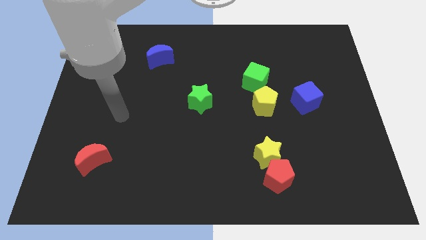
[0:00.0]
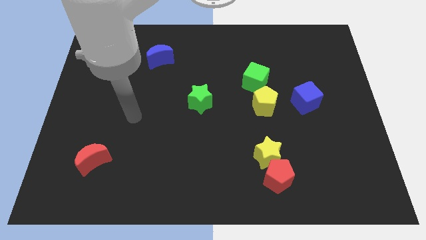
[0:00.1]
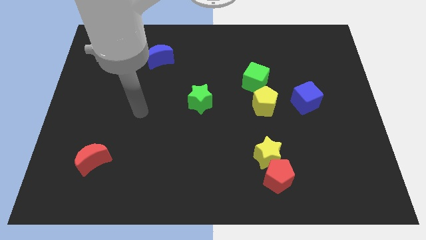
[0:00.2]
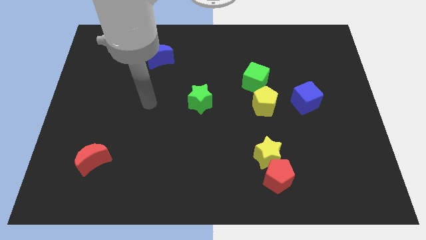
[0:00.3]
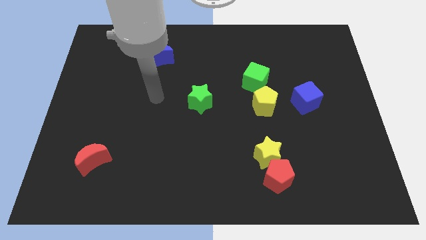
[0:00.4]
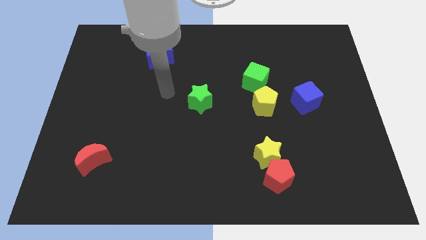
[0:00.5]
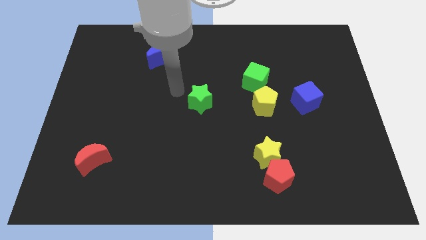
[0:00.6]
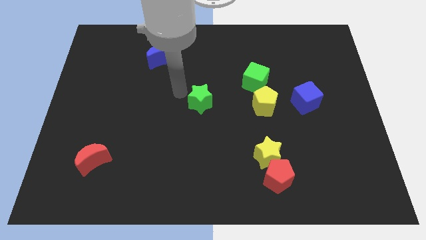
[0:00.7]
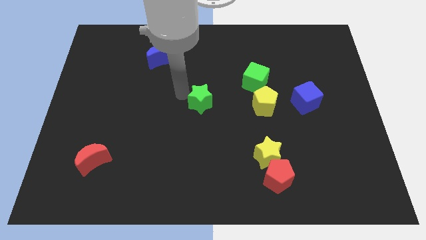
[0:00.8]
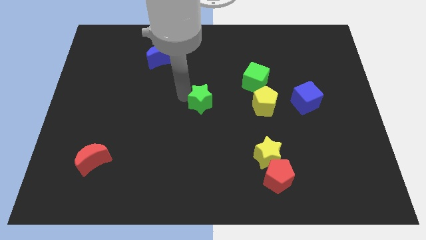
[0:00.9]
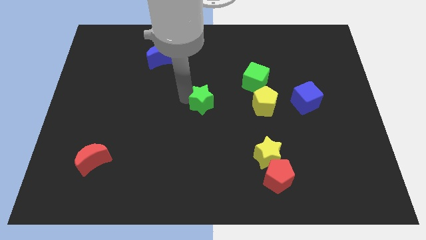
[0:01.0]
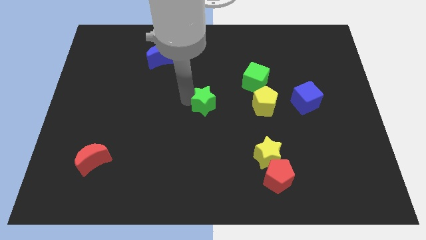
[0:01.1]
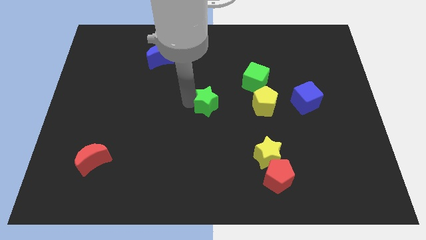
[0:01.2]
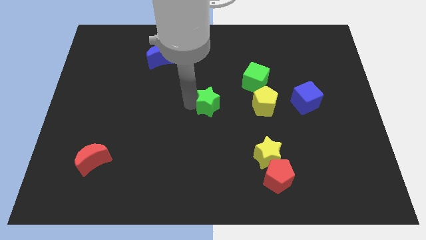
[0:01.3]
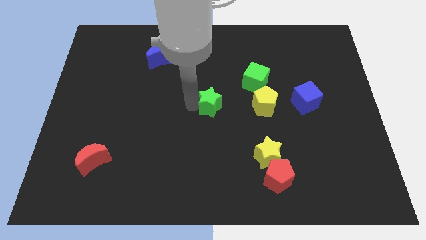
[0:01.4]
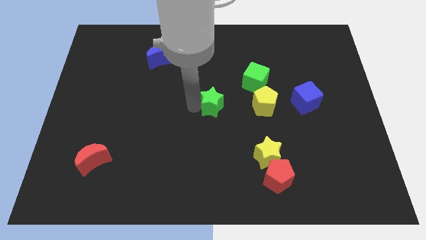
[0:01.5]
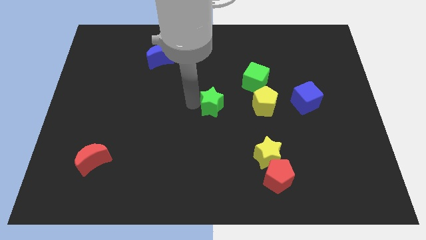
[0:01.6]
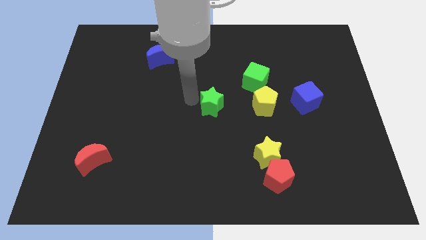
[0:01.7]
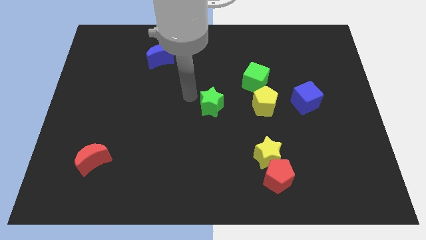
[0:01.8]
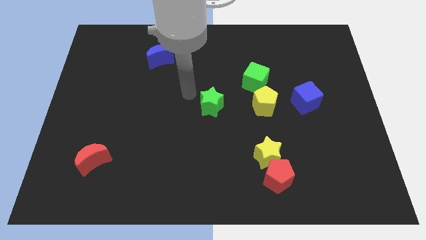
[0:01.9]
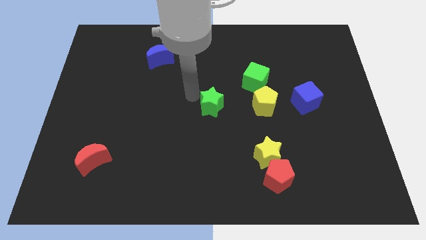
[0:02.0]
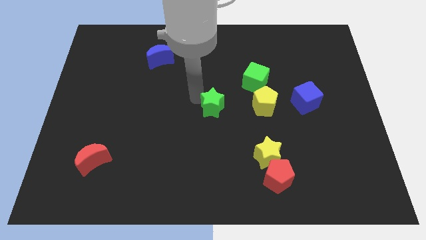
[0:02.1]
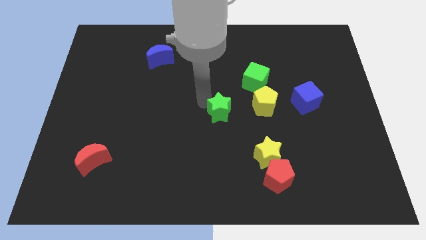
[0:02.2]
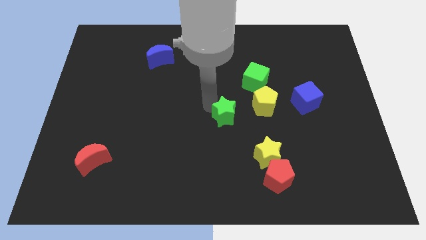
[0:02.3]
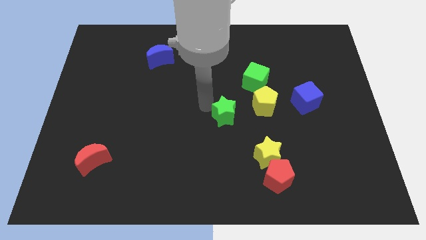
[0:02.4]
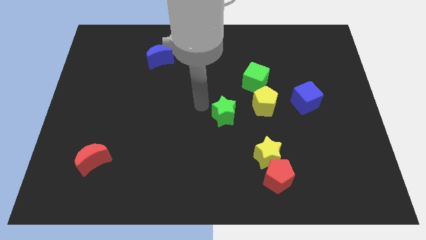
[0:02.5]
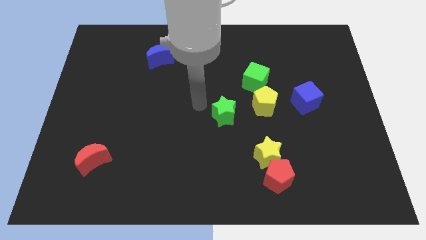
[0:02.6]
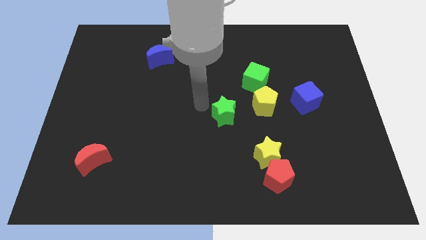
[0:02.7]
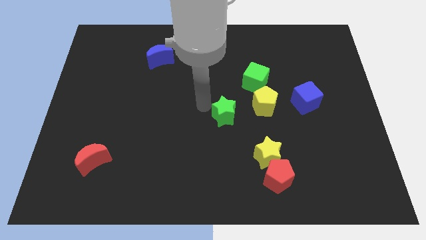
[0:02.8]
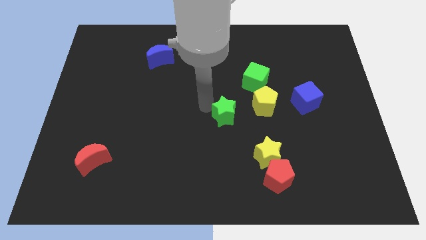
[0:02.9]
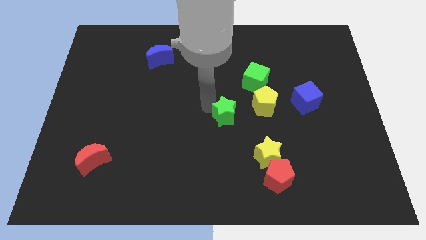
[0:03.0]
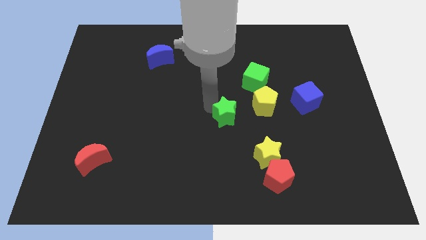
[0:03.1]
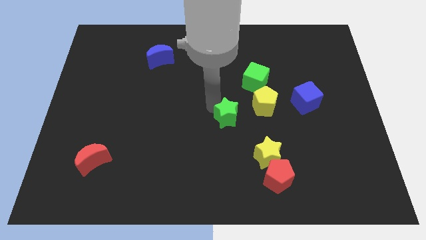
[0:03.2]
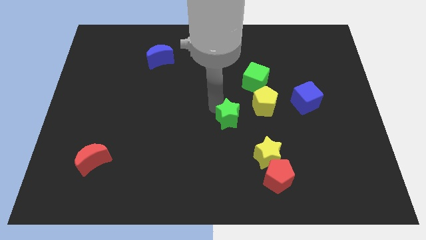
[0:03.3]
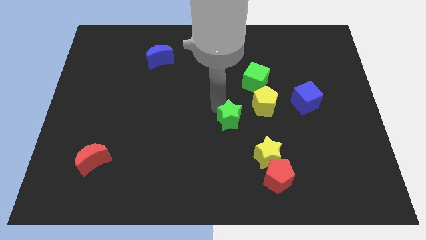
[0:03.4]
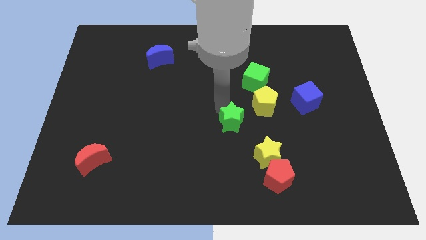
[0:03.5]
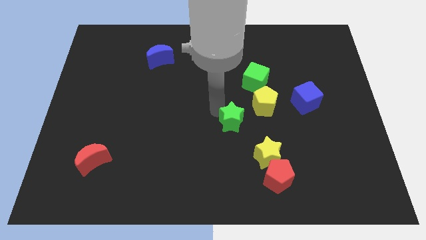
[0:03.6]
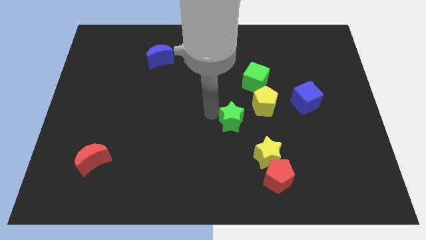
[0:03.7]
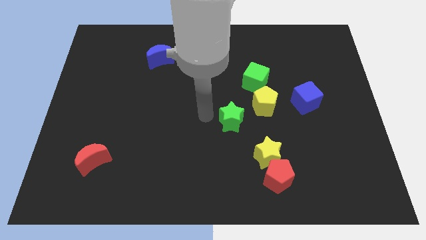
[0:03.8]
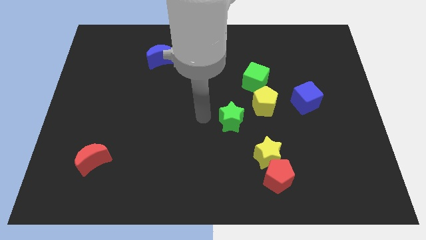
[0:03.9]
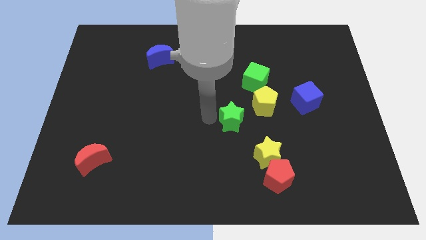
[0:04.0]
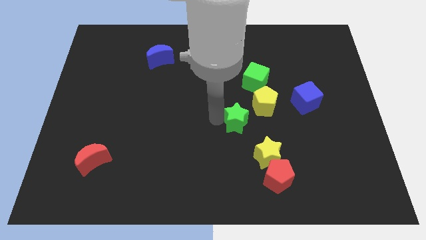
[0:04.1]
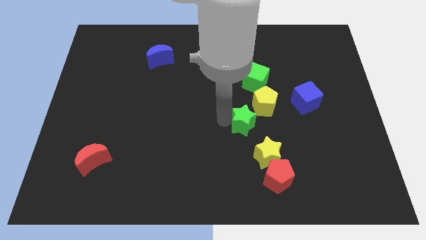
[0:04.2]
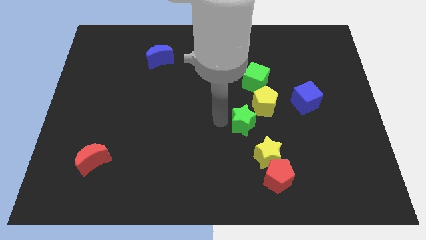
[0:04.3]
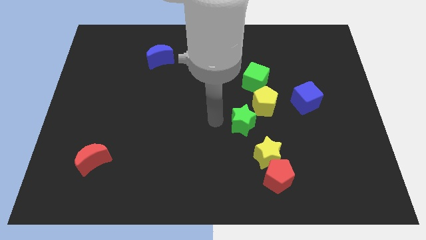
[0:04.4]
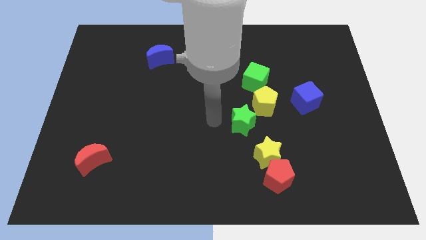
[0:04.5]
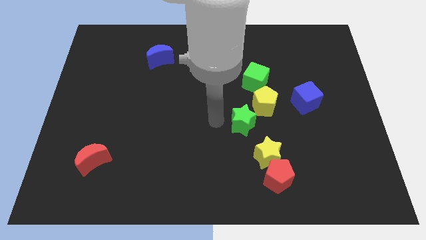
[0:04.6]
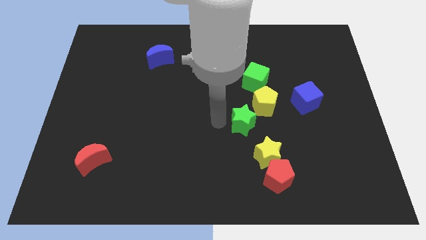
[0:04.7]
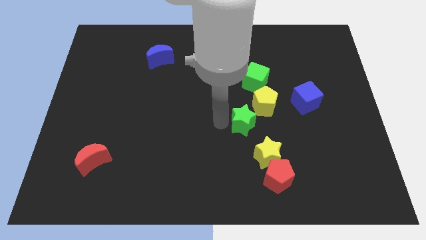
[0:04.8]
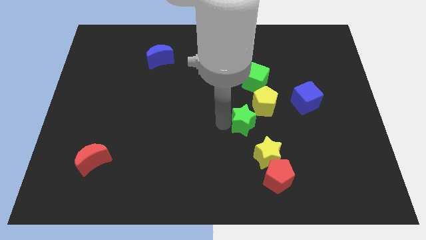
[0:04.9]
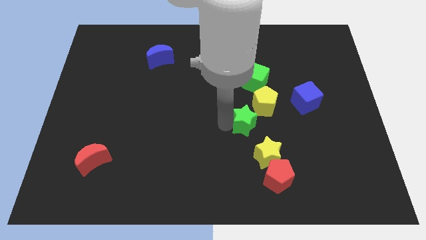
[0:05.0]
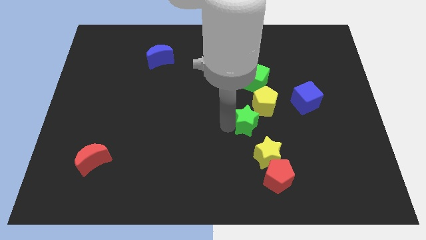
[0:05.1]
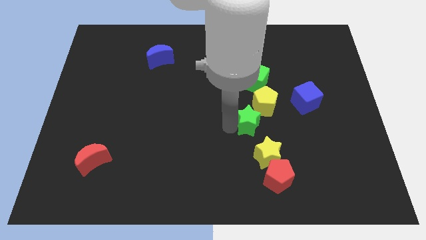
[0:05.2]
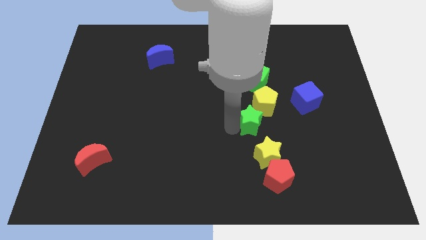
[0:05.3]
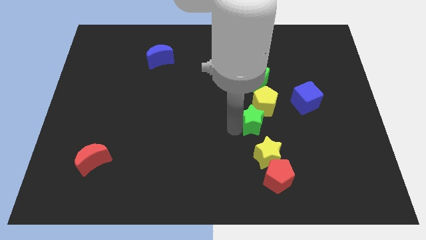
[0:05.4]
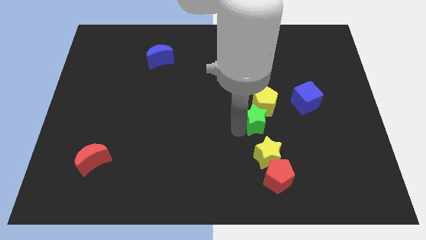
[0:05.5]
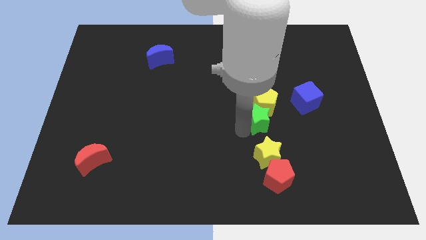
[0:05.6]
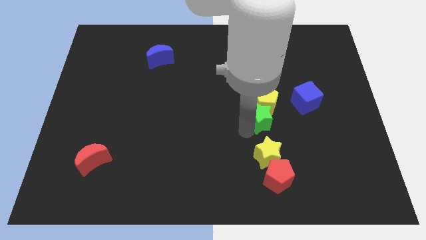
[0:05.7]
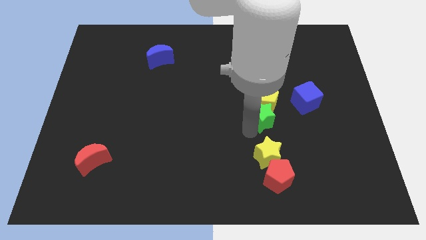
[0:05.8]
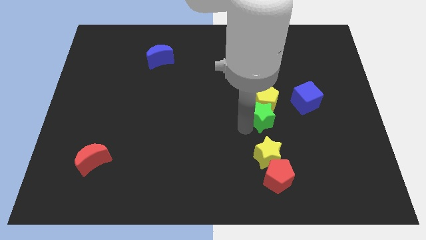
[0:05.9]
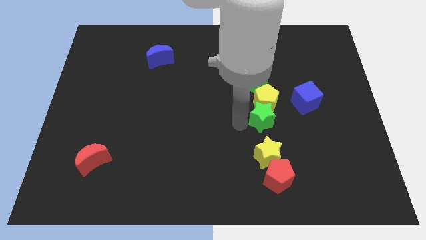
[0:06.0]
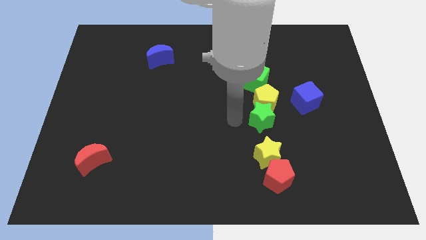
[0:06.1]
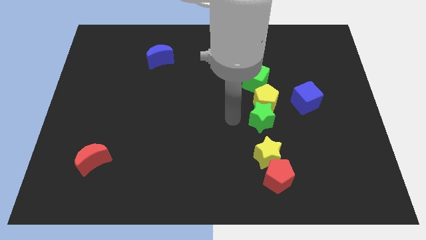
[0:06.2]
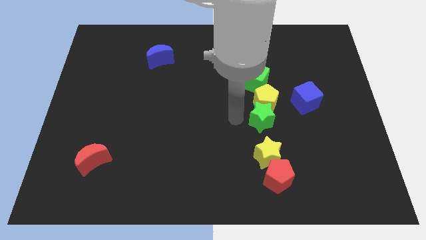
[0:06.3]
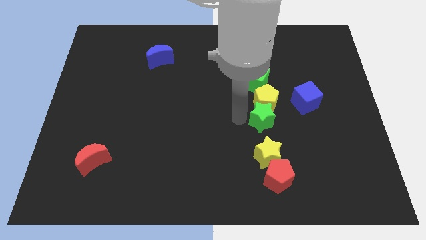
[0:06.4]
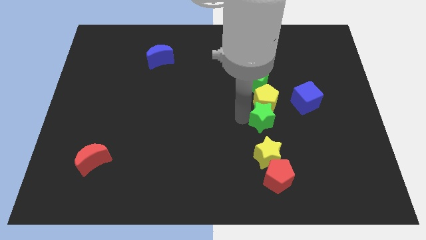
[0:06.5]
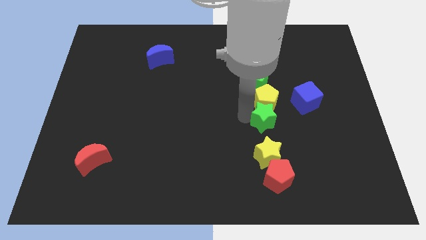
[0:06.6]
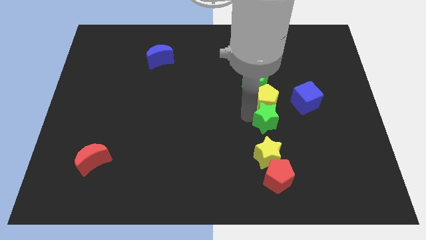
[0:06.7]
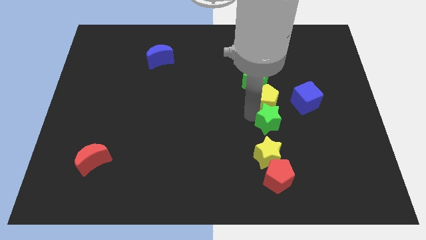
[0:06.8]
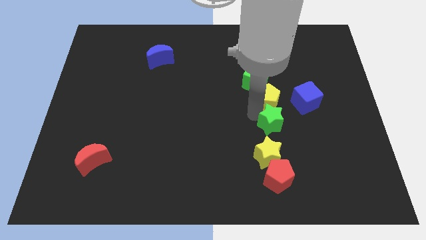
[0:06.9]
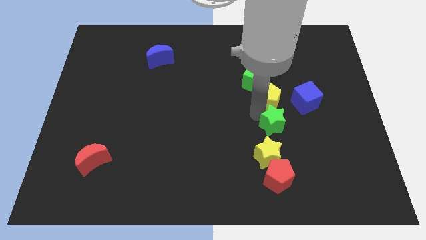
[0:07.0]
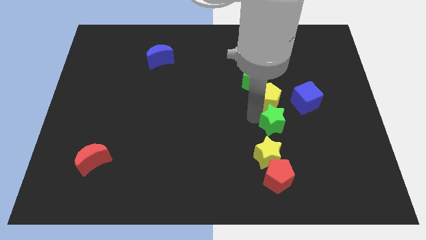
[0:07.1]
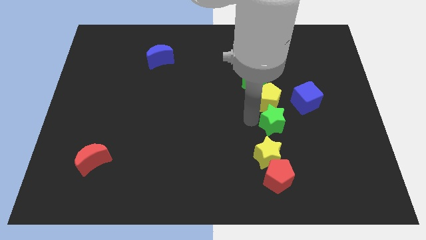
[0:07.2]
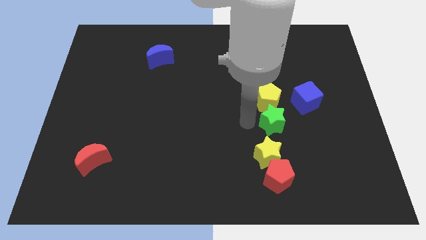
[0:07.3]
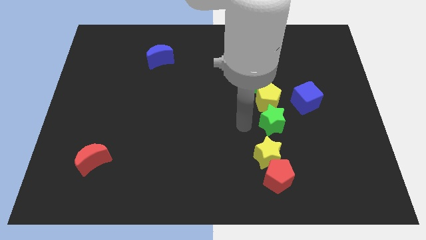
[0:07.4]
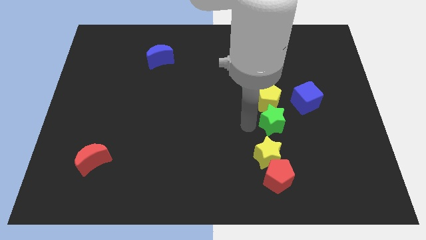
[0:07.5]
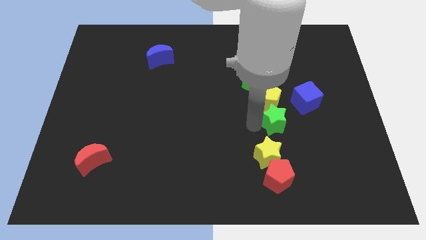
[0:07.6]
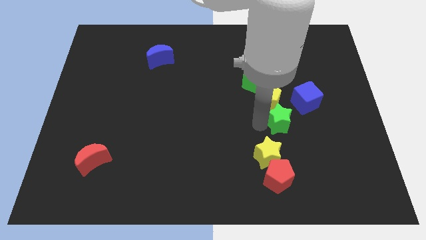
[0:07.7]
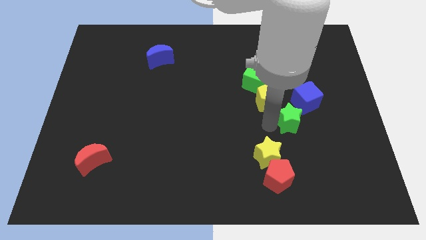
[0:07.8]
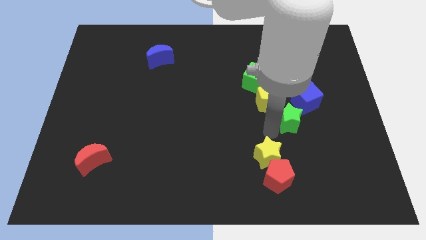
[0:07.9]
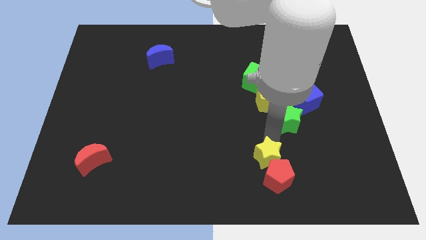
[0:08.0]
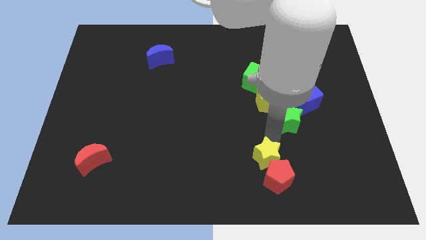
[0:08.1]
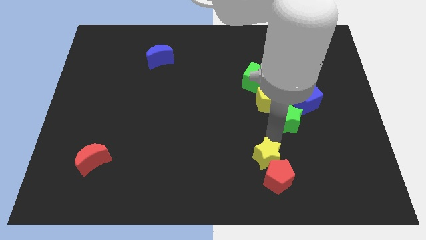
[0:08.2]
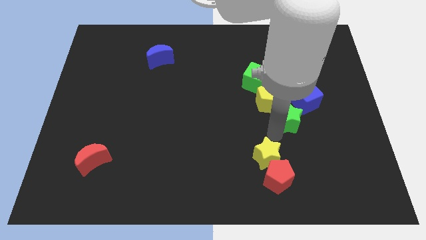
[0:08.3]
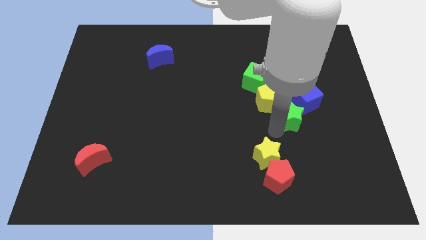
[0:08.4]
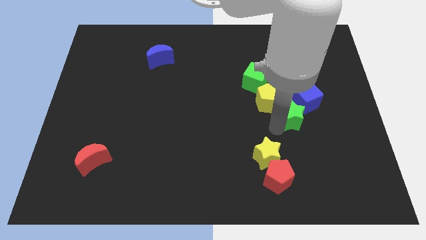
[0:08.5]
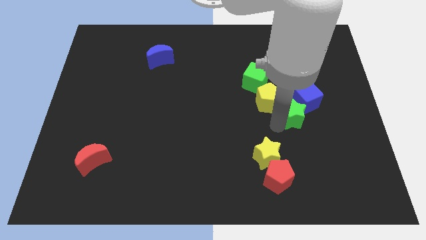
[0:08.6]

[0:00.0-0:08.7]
push the green star to the blue cube
